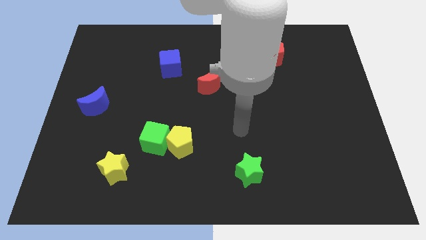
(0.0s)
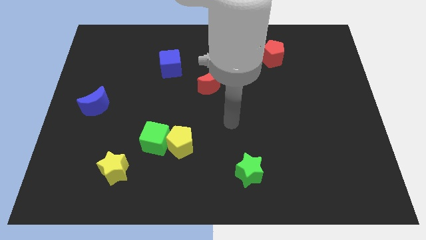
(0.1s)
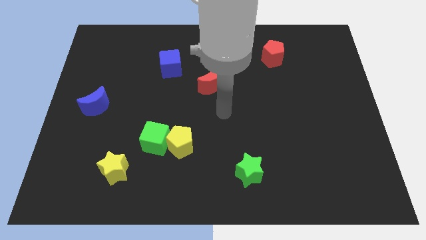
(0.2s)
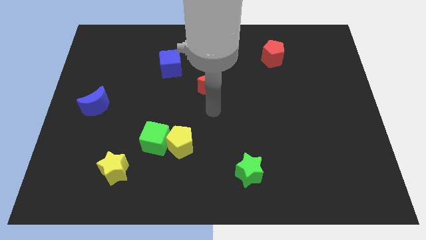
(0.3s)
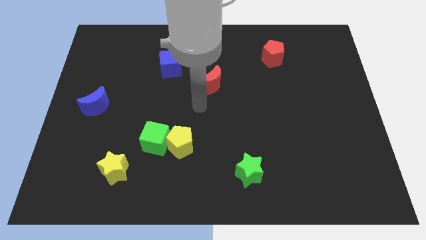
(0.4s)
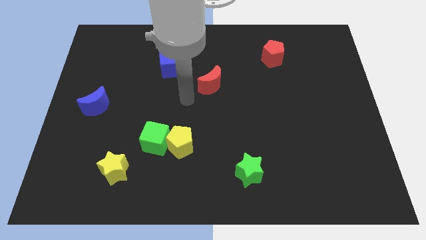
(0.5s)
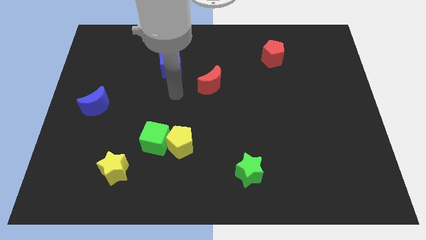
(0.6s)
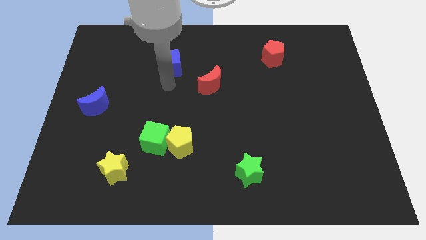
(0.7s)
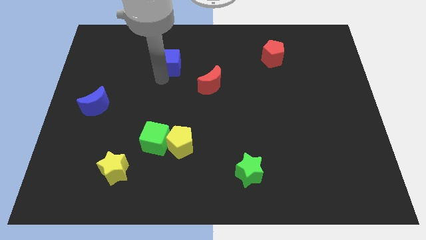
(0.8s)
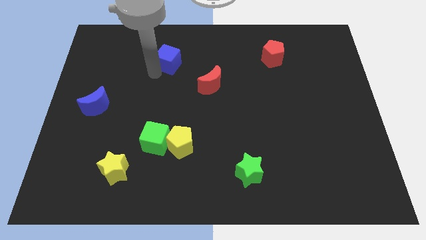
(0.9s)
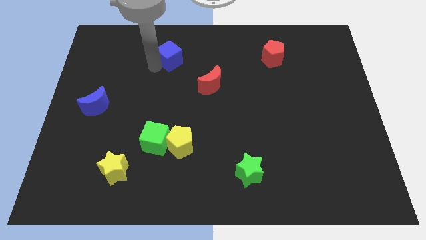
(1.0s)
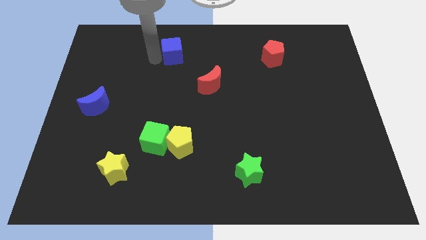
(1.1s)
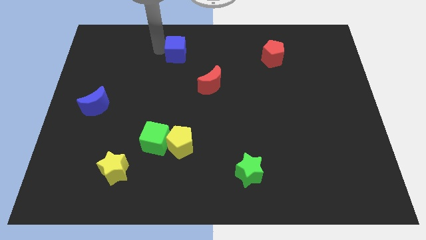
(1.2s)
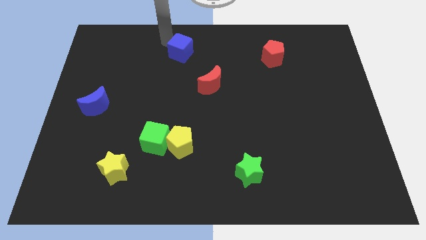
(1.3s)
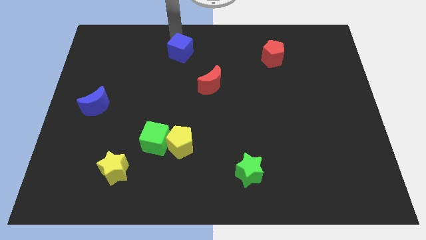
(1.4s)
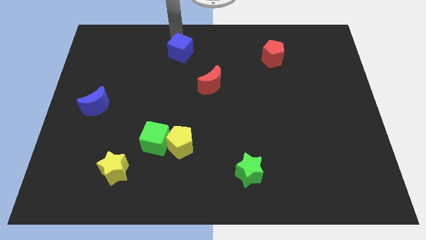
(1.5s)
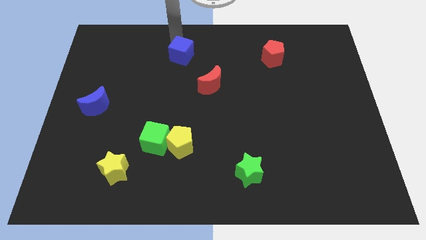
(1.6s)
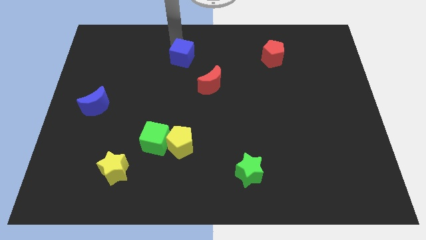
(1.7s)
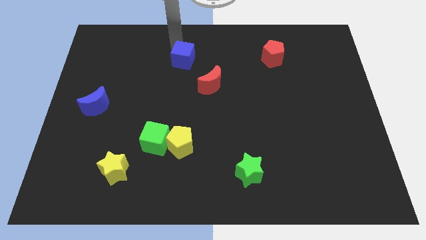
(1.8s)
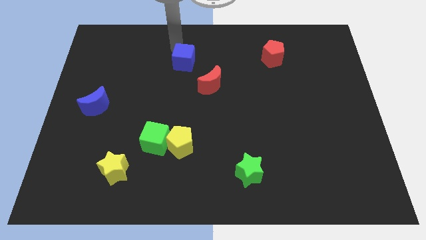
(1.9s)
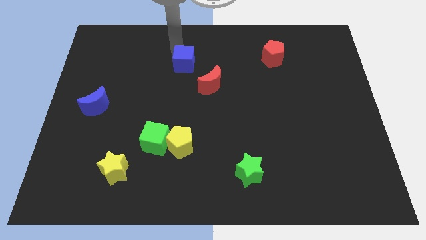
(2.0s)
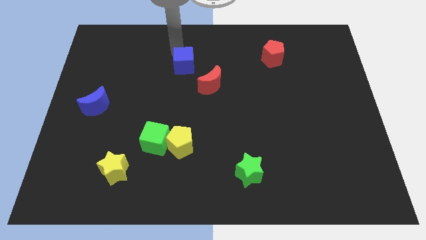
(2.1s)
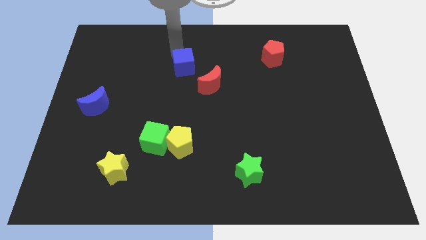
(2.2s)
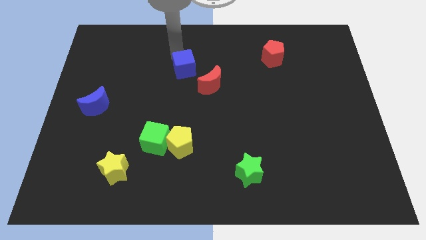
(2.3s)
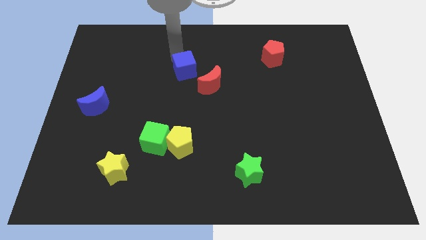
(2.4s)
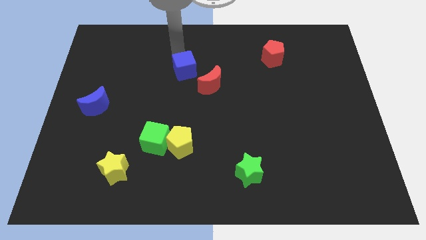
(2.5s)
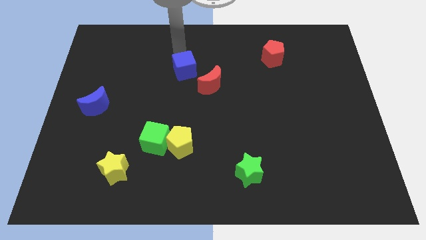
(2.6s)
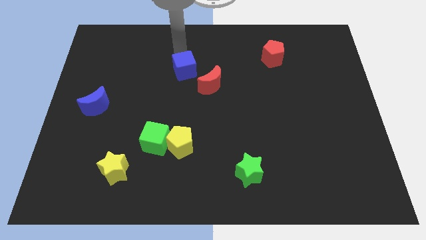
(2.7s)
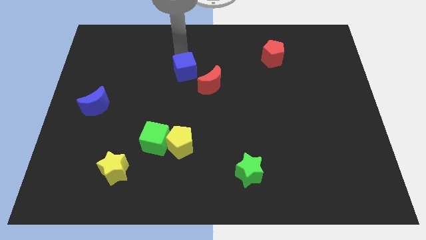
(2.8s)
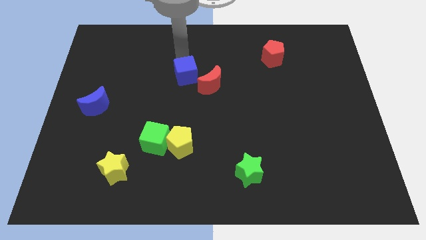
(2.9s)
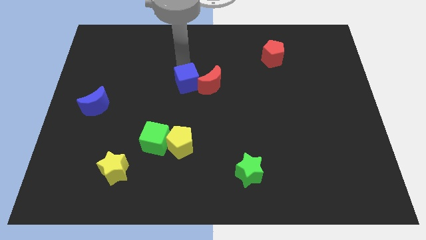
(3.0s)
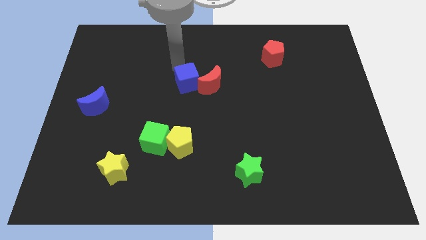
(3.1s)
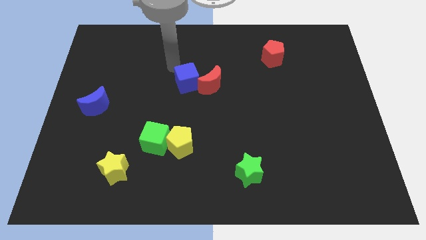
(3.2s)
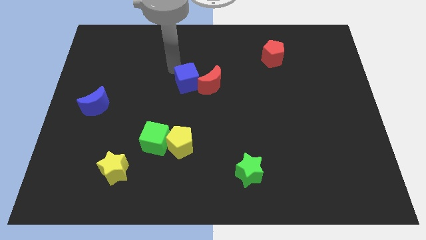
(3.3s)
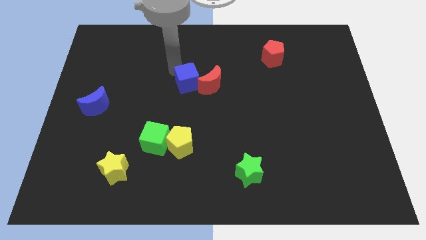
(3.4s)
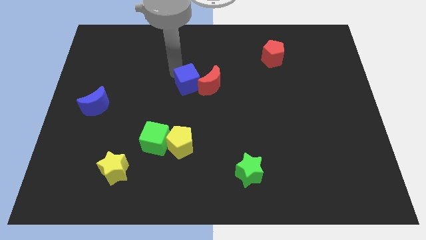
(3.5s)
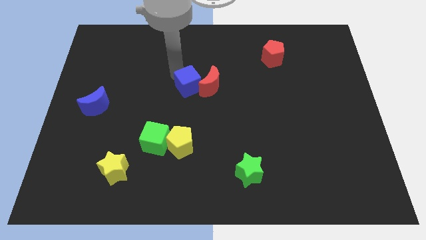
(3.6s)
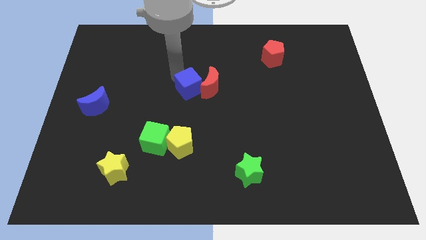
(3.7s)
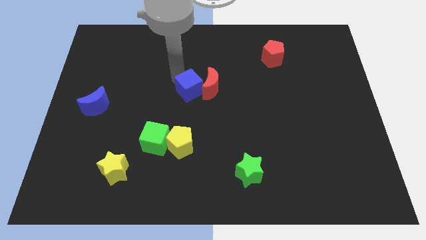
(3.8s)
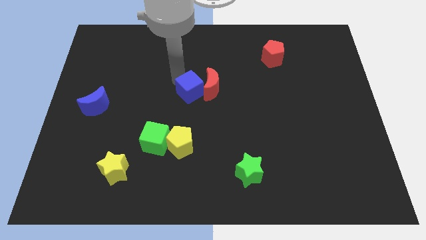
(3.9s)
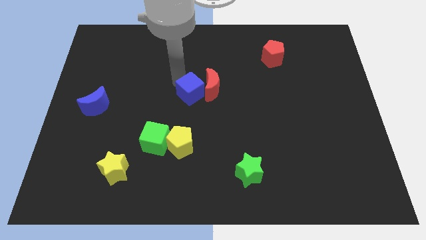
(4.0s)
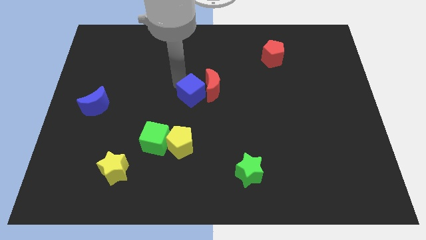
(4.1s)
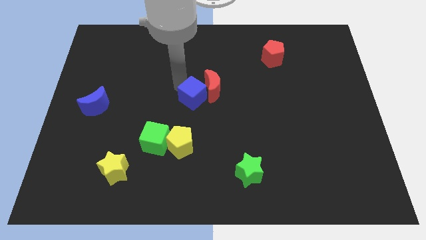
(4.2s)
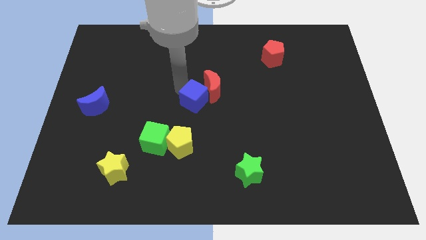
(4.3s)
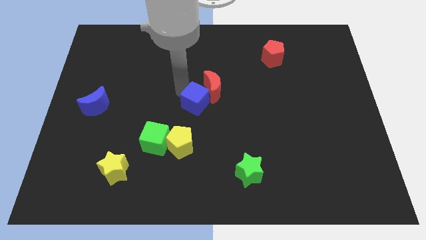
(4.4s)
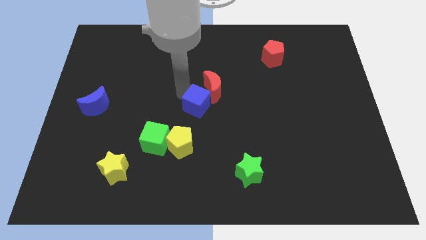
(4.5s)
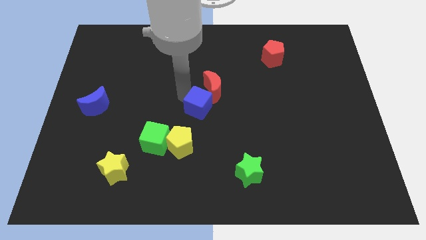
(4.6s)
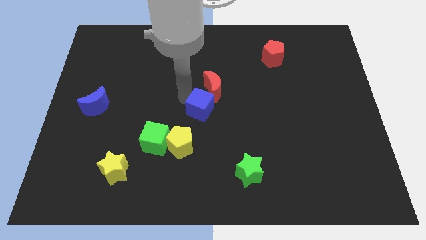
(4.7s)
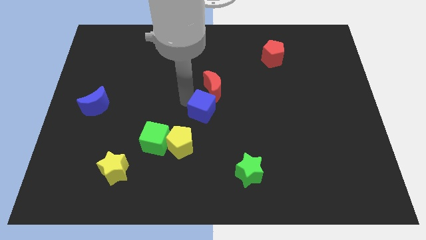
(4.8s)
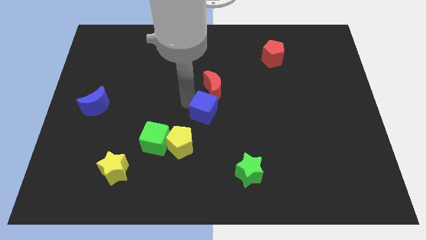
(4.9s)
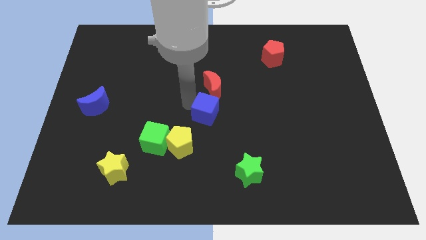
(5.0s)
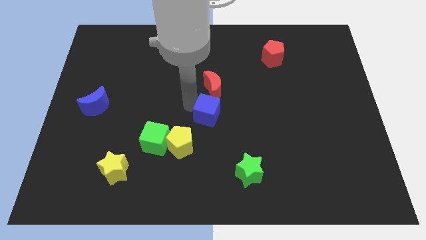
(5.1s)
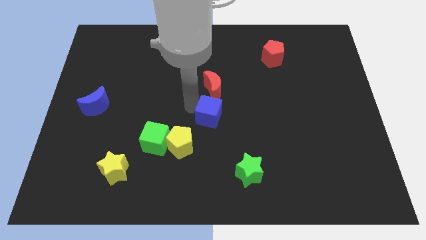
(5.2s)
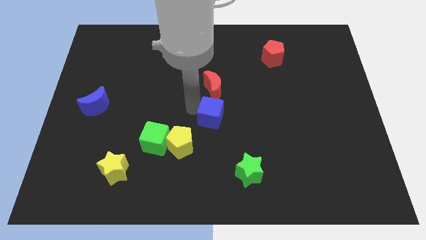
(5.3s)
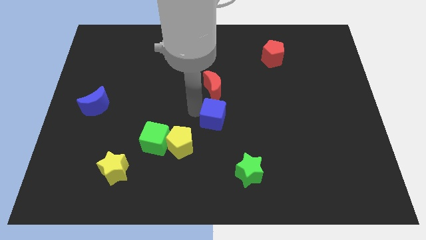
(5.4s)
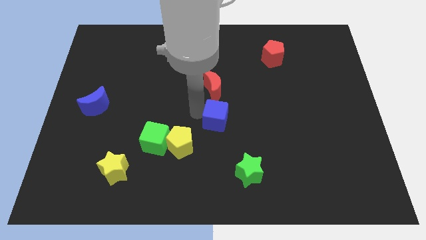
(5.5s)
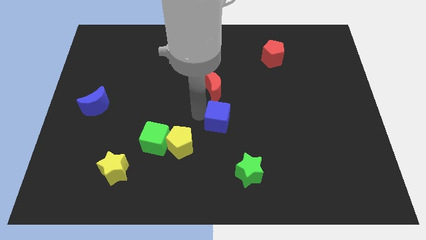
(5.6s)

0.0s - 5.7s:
move the blue cube downwards and right diagonally

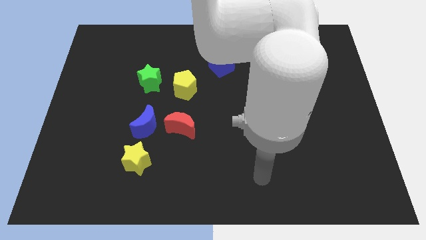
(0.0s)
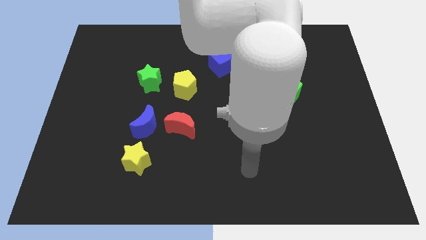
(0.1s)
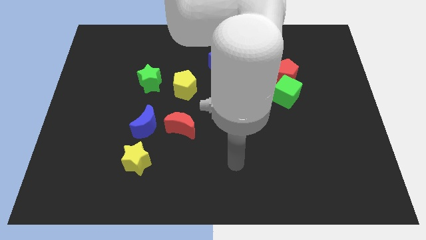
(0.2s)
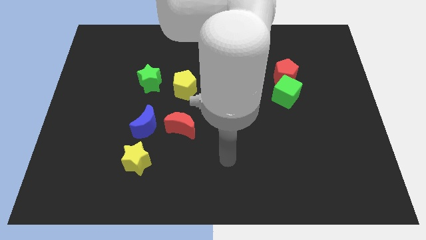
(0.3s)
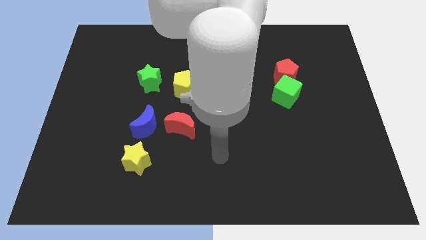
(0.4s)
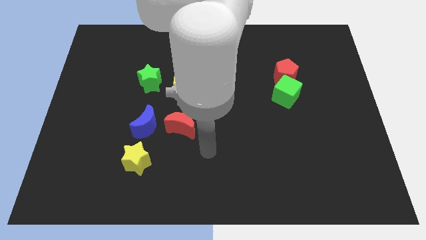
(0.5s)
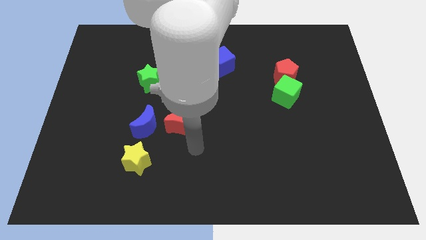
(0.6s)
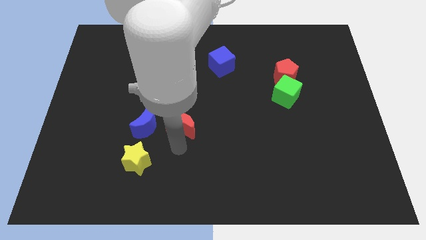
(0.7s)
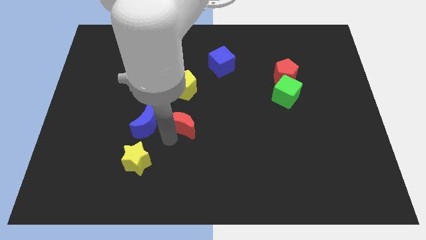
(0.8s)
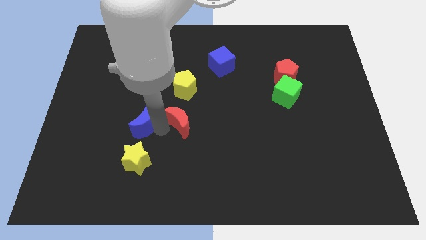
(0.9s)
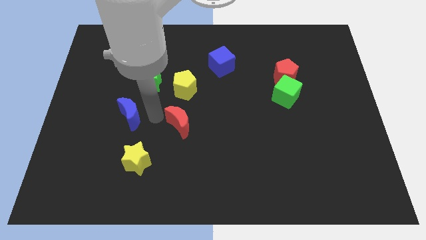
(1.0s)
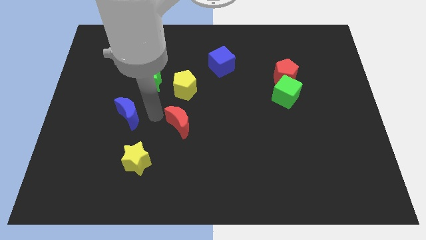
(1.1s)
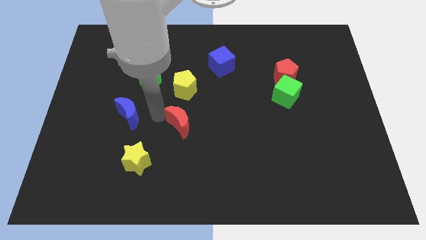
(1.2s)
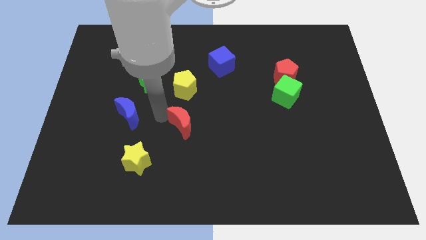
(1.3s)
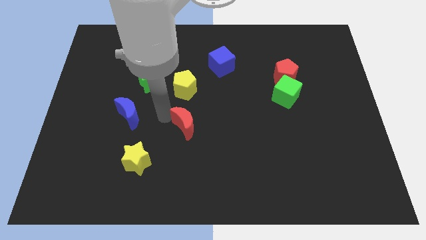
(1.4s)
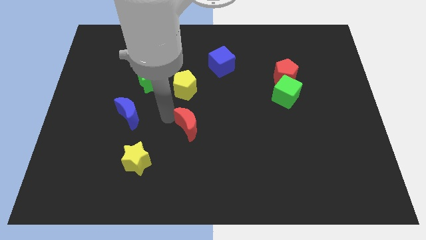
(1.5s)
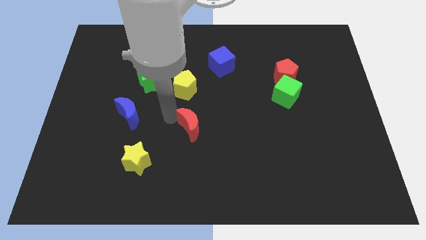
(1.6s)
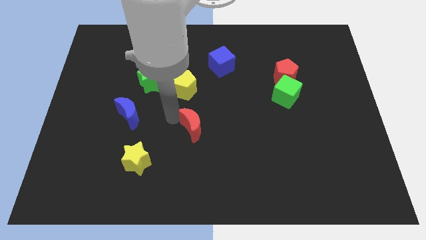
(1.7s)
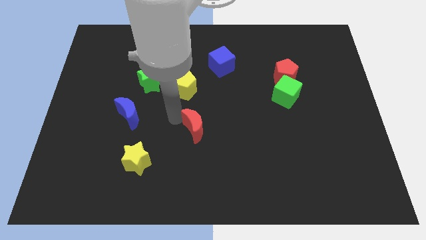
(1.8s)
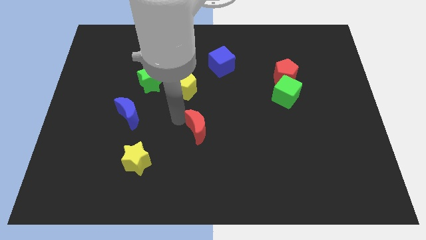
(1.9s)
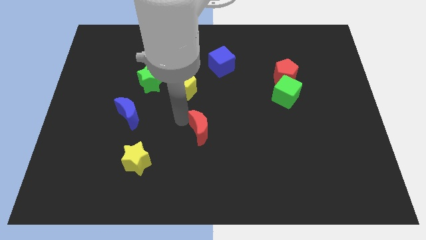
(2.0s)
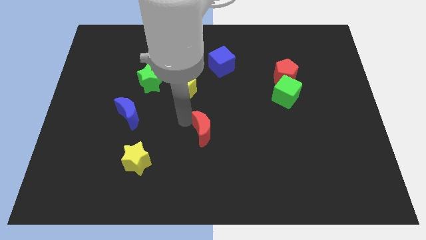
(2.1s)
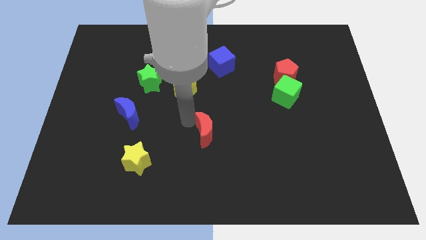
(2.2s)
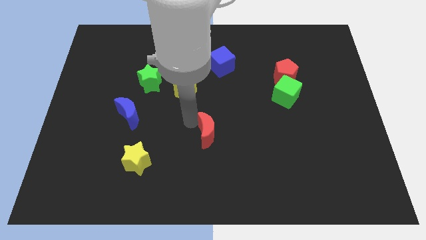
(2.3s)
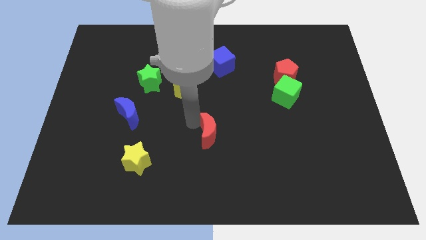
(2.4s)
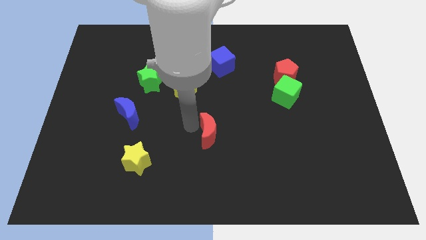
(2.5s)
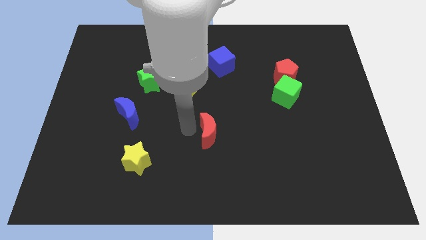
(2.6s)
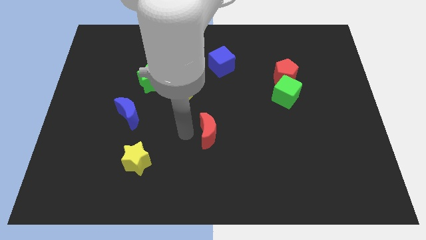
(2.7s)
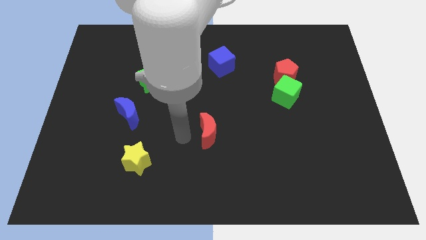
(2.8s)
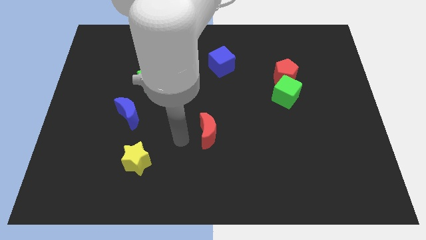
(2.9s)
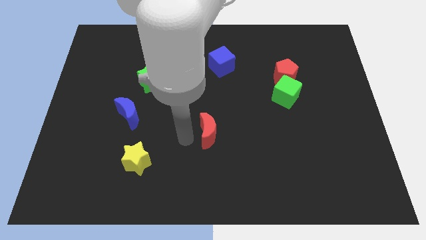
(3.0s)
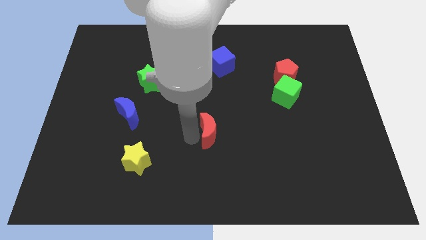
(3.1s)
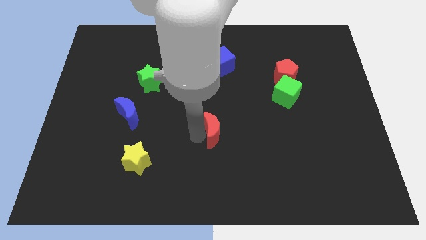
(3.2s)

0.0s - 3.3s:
slide the red moon a bit right
